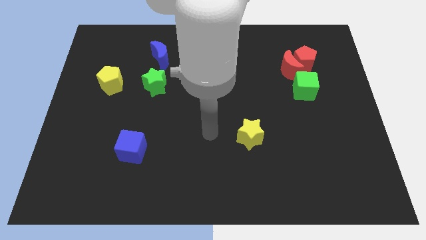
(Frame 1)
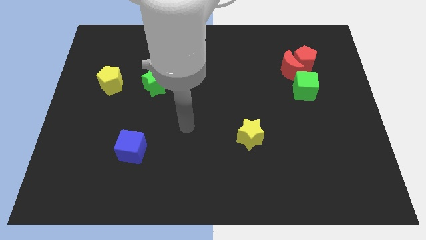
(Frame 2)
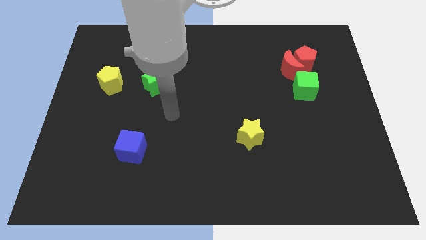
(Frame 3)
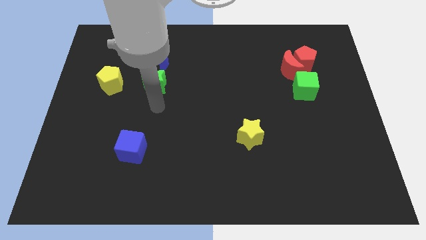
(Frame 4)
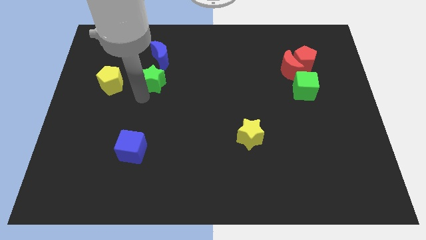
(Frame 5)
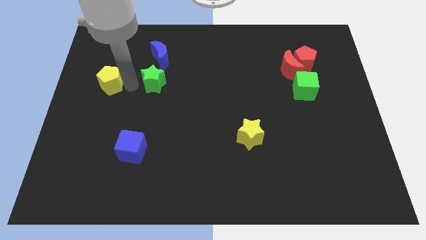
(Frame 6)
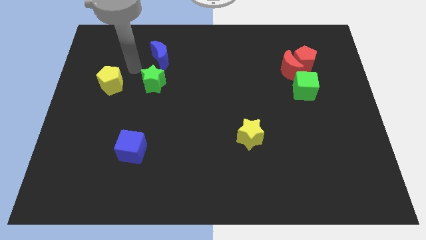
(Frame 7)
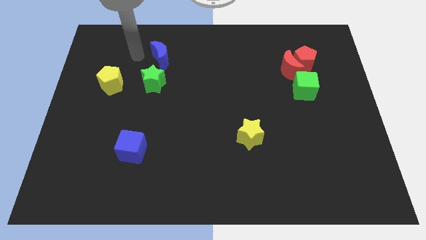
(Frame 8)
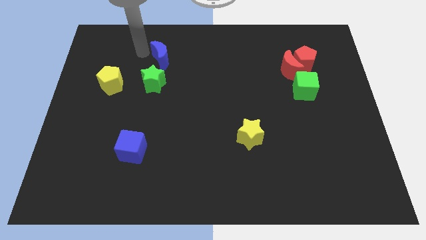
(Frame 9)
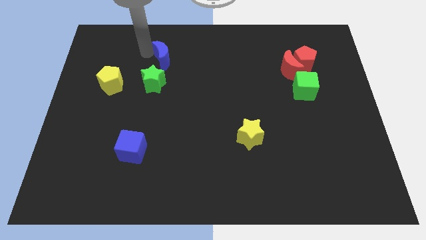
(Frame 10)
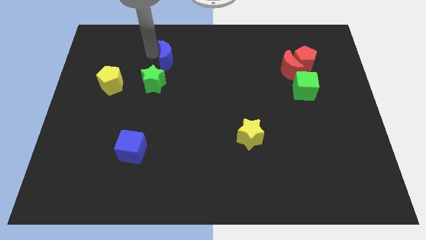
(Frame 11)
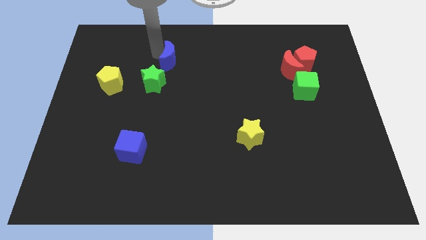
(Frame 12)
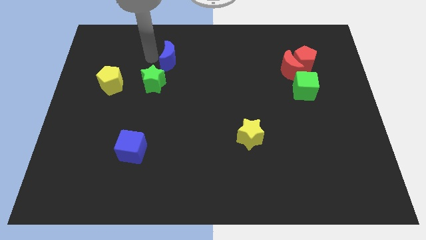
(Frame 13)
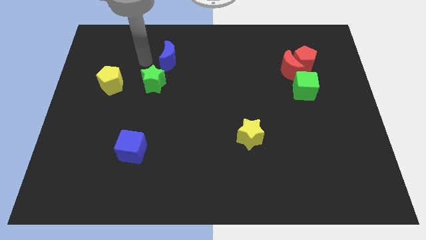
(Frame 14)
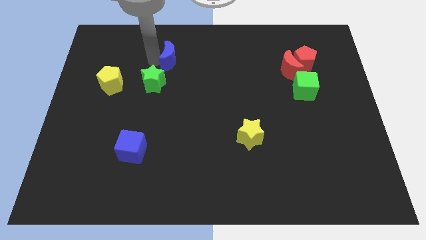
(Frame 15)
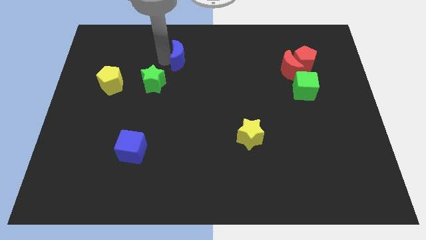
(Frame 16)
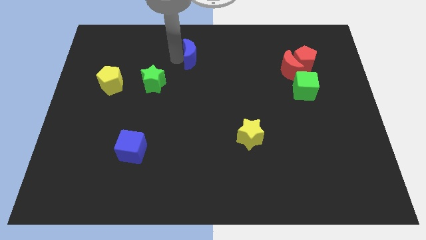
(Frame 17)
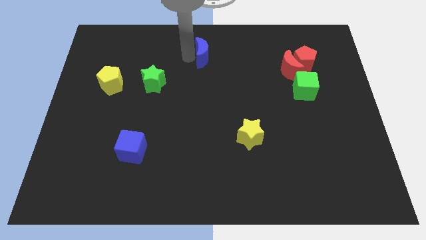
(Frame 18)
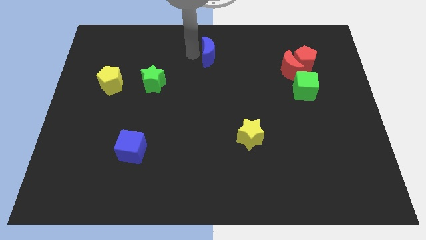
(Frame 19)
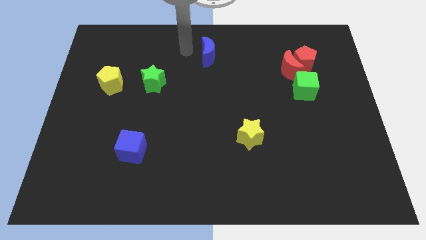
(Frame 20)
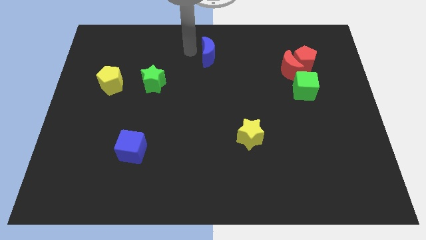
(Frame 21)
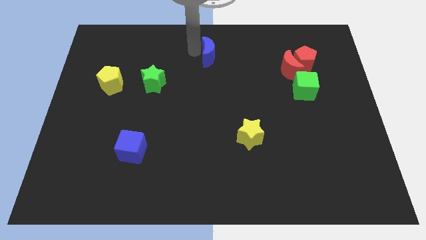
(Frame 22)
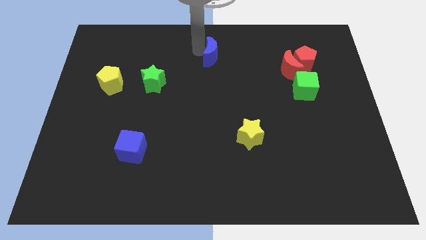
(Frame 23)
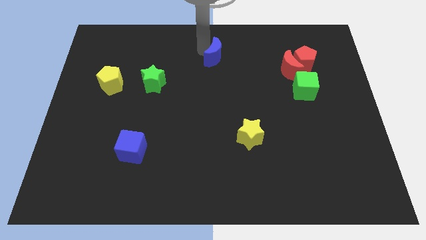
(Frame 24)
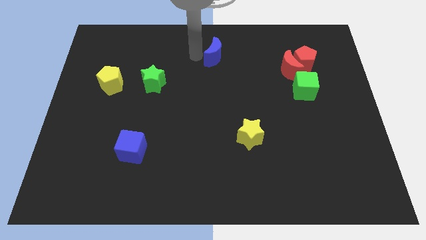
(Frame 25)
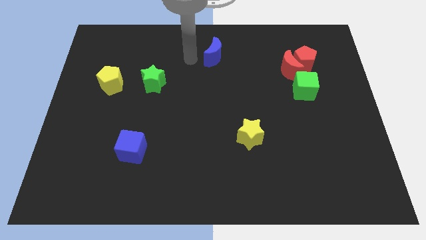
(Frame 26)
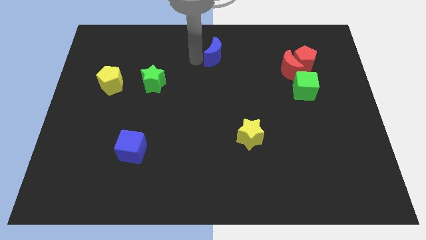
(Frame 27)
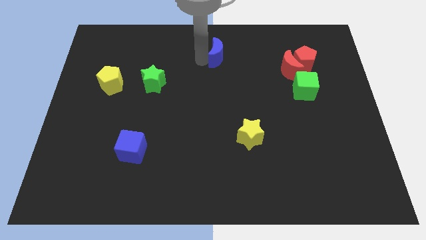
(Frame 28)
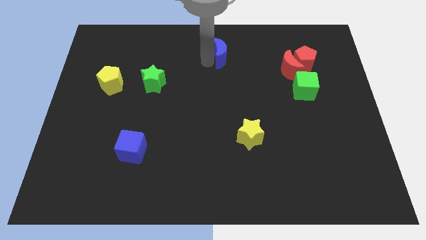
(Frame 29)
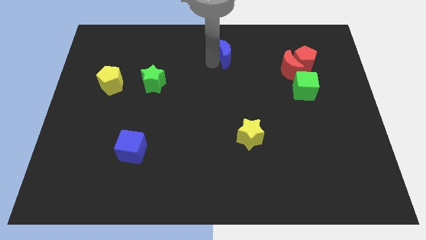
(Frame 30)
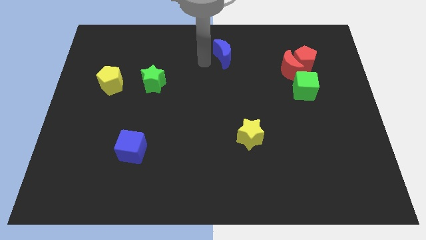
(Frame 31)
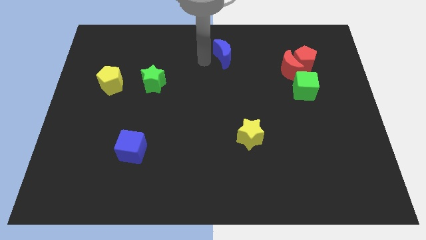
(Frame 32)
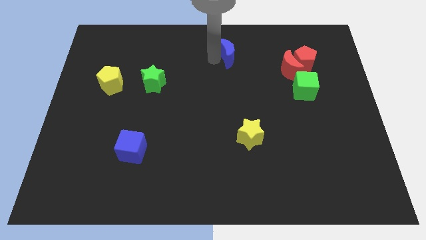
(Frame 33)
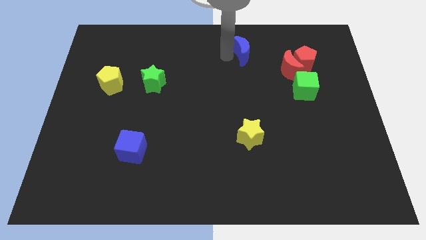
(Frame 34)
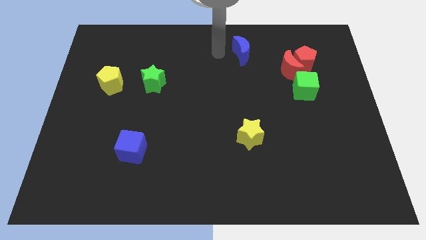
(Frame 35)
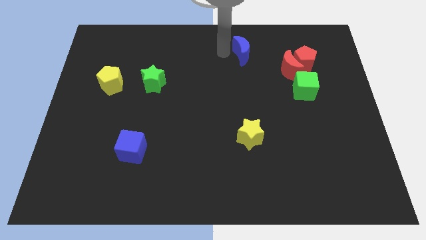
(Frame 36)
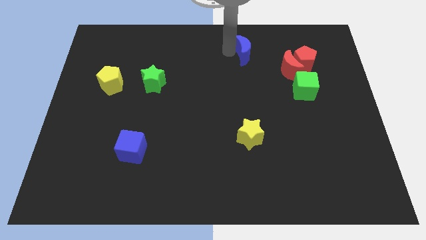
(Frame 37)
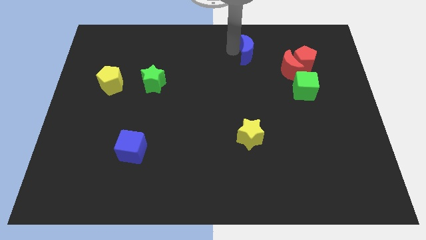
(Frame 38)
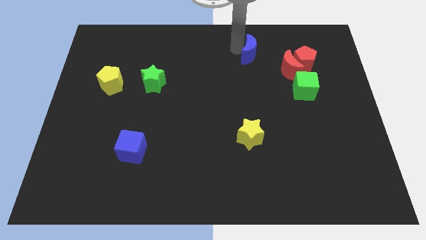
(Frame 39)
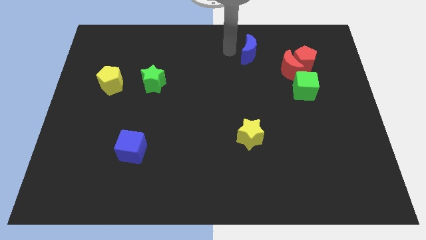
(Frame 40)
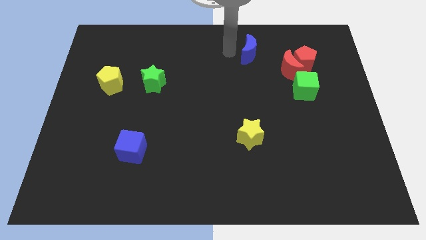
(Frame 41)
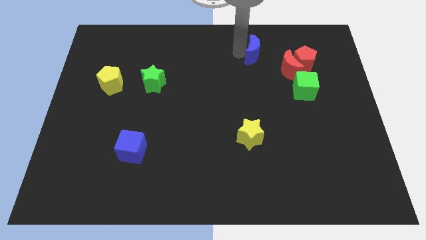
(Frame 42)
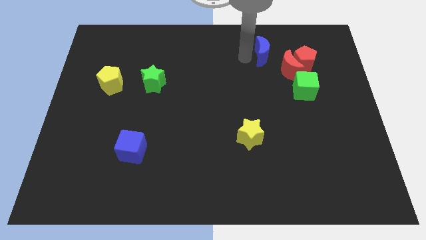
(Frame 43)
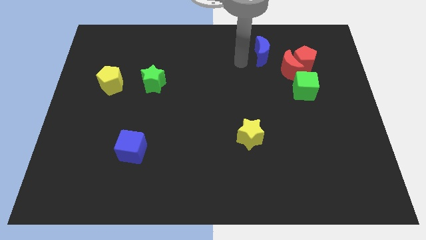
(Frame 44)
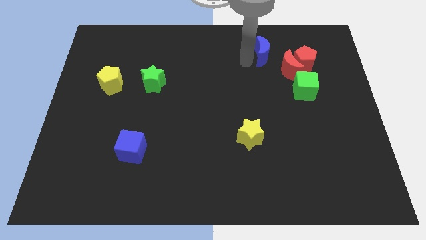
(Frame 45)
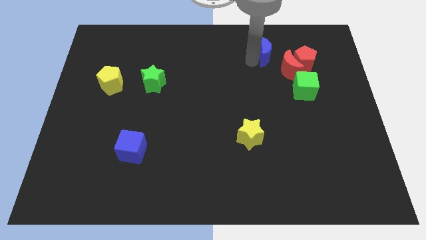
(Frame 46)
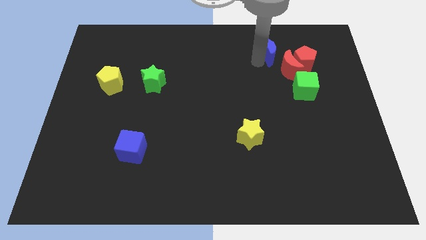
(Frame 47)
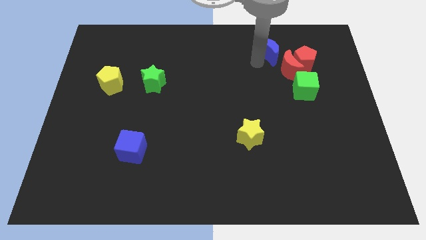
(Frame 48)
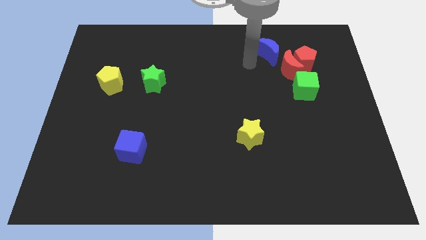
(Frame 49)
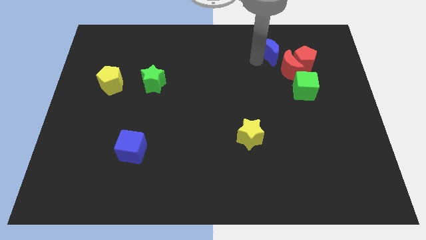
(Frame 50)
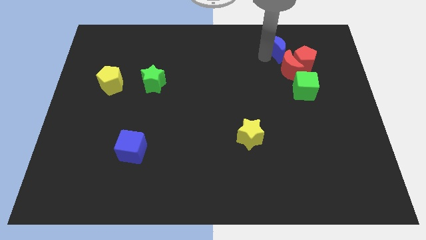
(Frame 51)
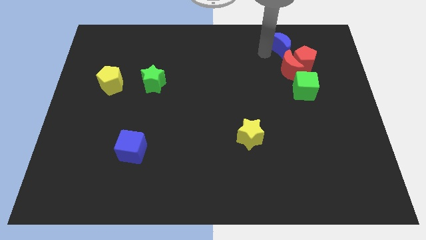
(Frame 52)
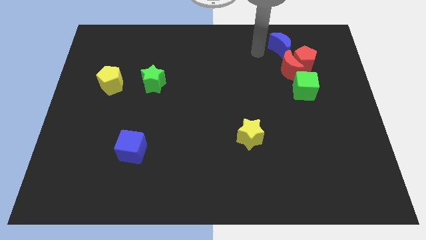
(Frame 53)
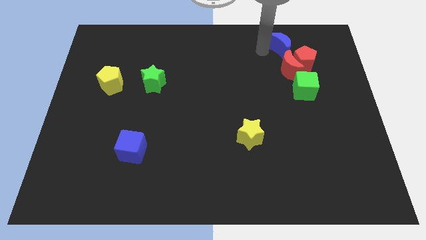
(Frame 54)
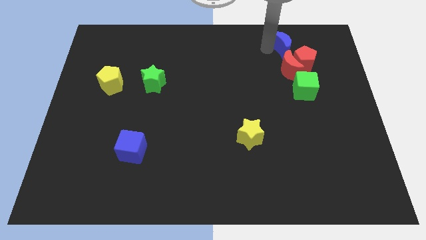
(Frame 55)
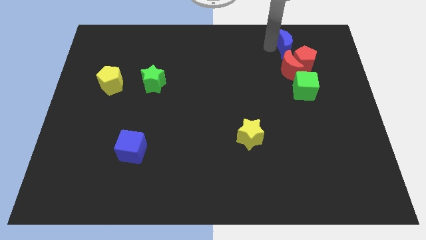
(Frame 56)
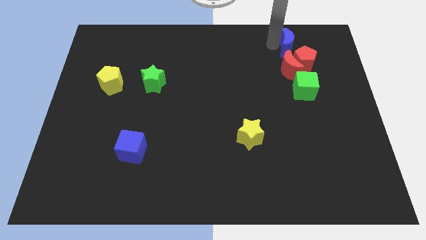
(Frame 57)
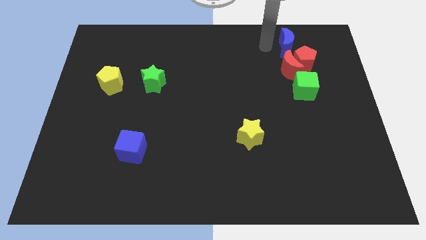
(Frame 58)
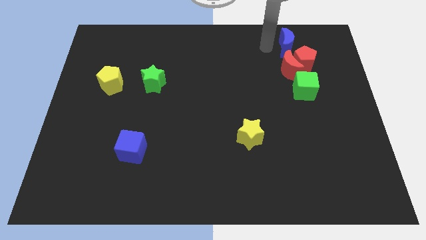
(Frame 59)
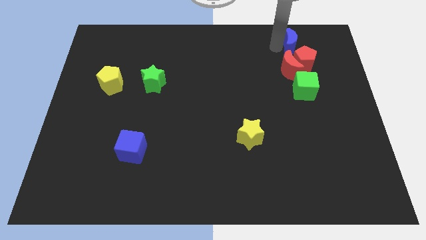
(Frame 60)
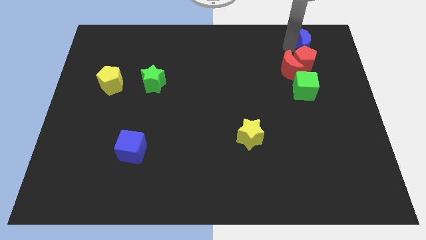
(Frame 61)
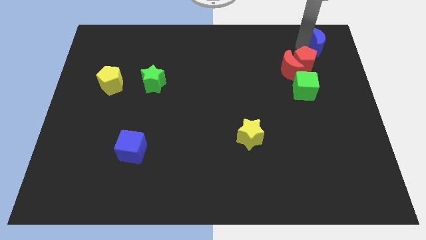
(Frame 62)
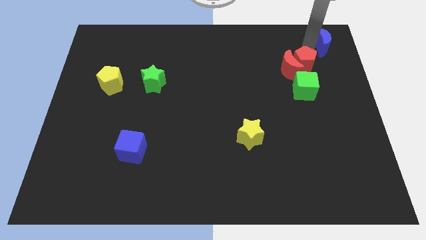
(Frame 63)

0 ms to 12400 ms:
move the blue moon to the top right corner

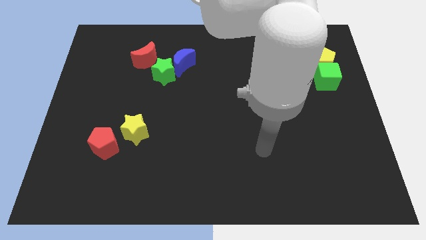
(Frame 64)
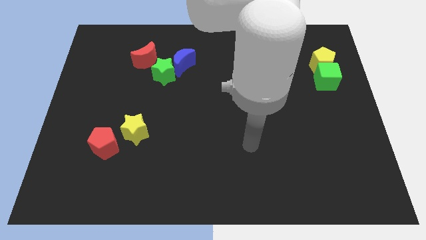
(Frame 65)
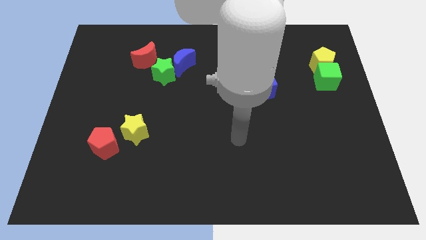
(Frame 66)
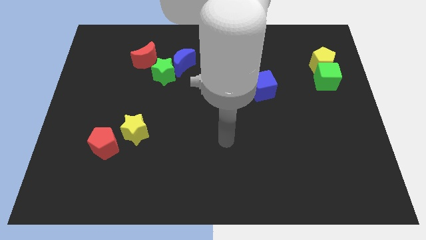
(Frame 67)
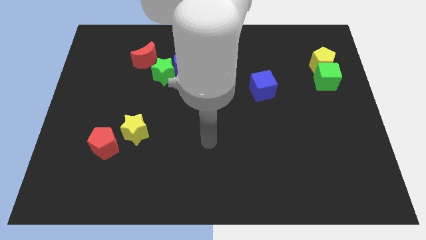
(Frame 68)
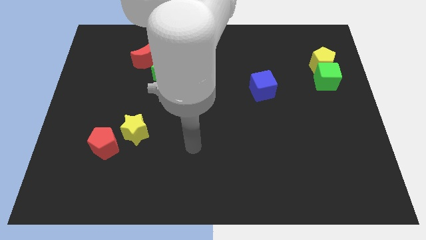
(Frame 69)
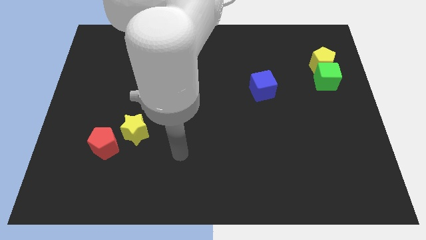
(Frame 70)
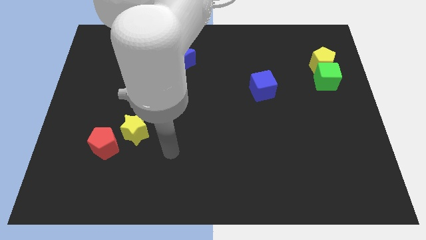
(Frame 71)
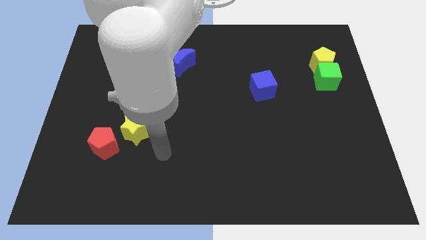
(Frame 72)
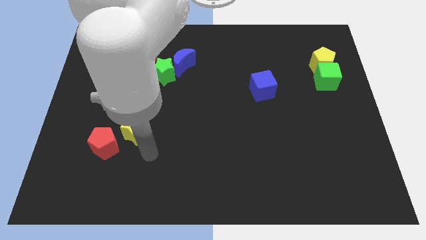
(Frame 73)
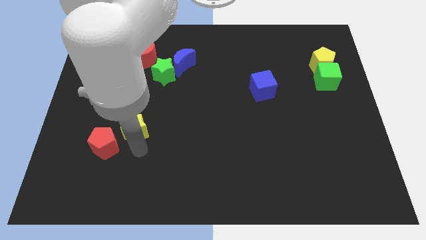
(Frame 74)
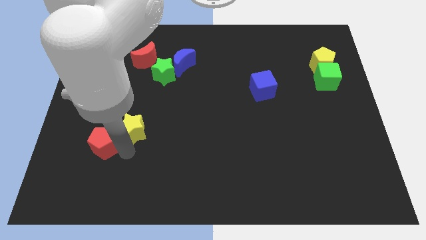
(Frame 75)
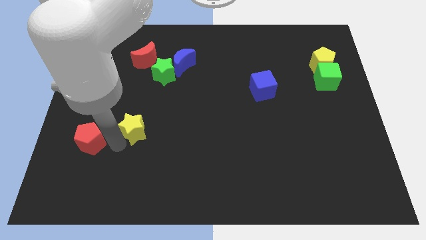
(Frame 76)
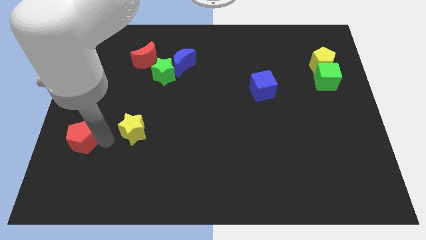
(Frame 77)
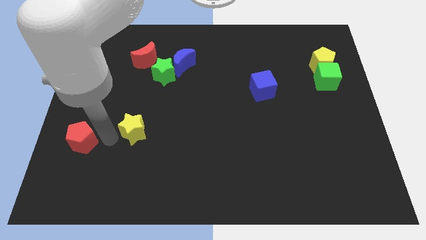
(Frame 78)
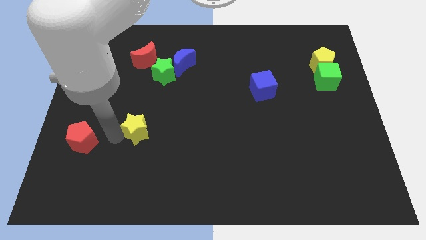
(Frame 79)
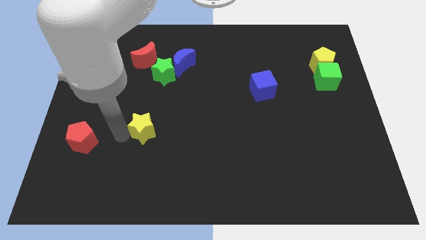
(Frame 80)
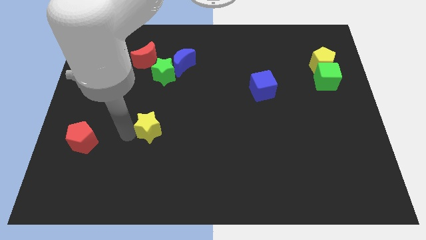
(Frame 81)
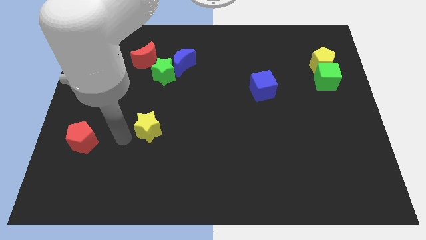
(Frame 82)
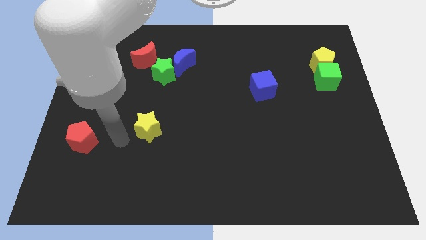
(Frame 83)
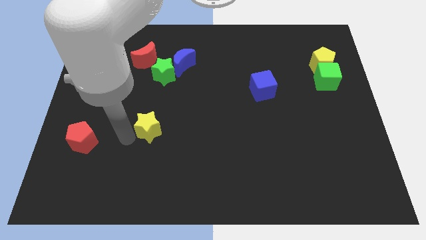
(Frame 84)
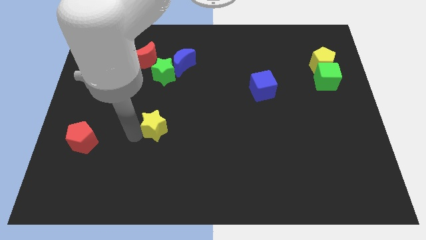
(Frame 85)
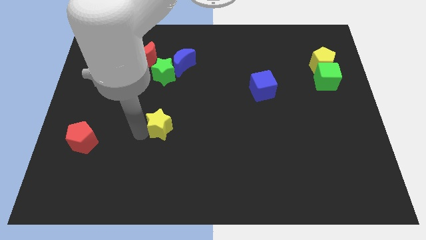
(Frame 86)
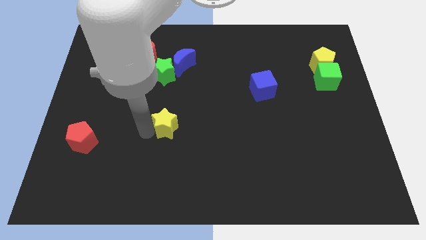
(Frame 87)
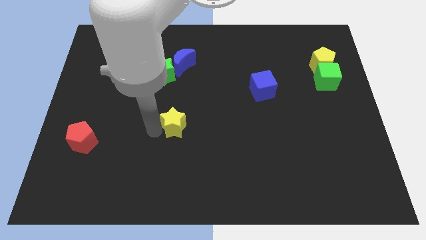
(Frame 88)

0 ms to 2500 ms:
put the yellow star to the middle of the board
